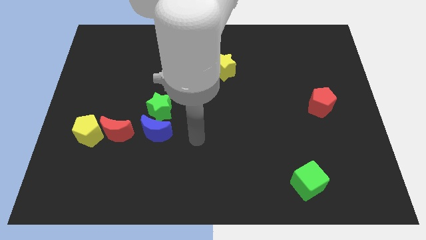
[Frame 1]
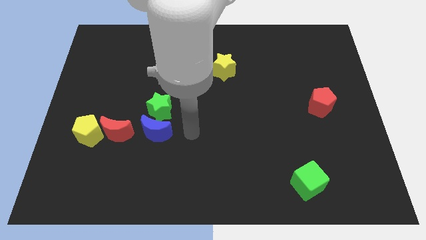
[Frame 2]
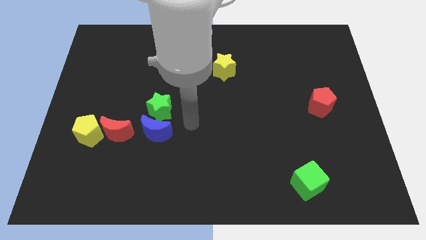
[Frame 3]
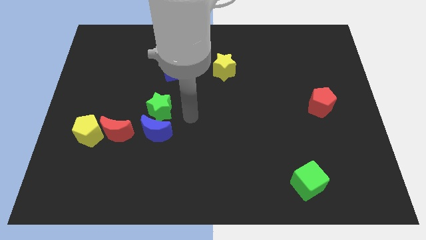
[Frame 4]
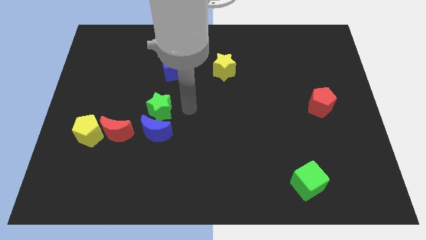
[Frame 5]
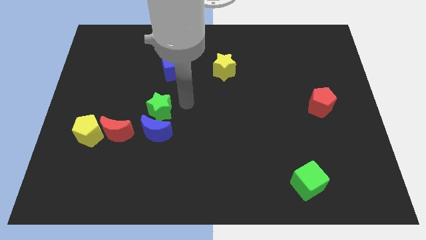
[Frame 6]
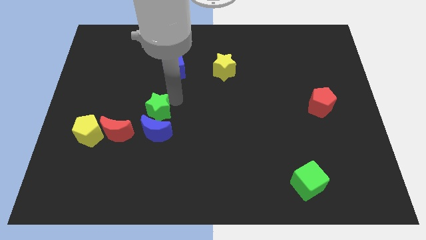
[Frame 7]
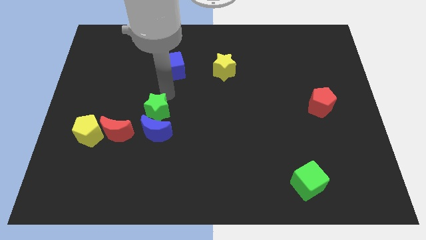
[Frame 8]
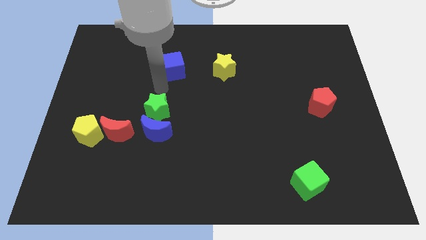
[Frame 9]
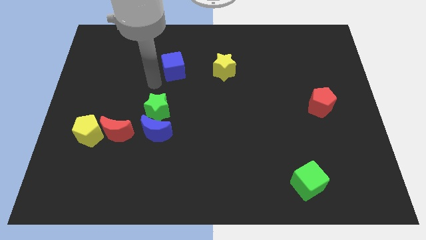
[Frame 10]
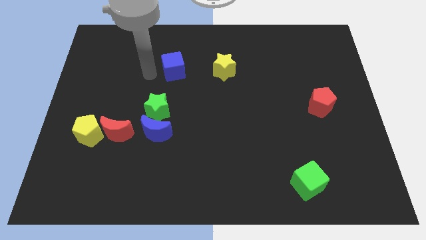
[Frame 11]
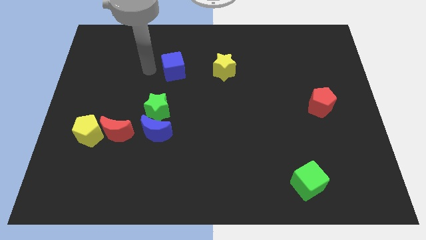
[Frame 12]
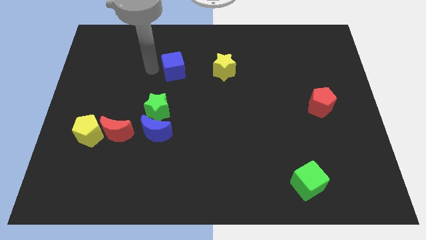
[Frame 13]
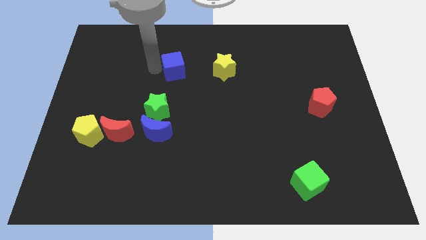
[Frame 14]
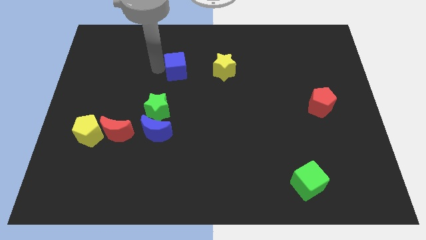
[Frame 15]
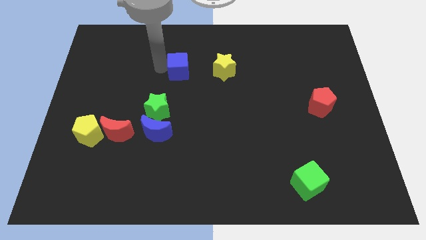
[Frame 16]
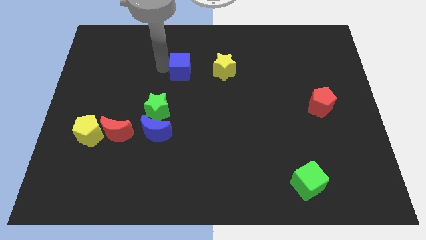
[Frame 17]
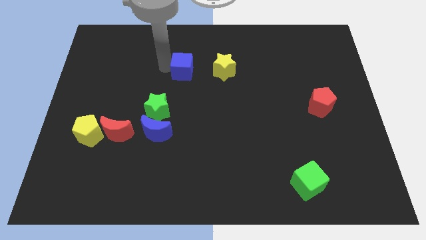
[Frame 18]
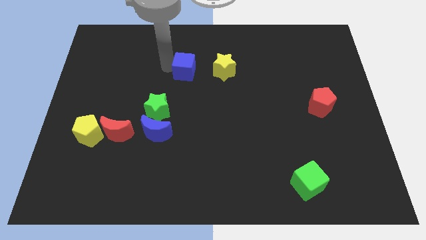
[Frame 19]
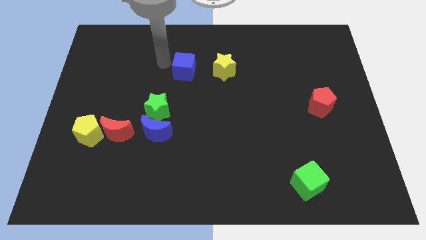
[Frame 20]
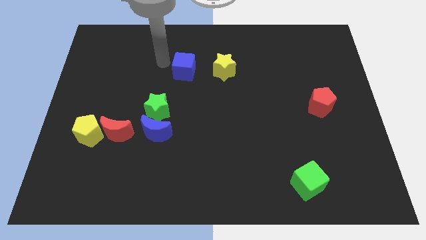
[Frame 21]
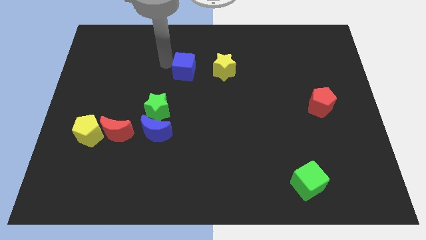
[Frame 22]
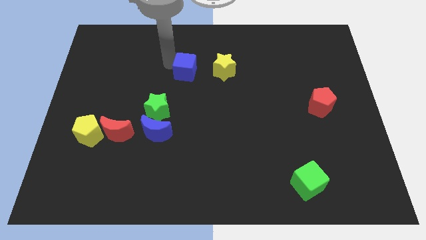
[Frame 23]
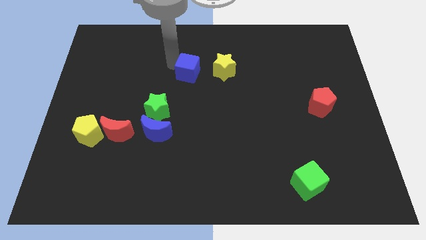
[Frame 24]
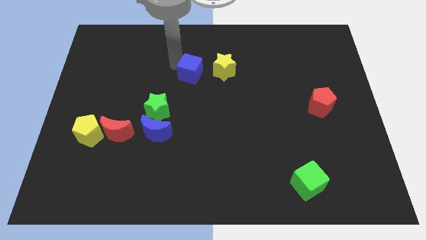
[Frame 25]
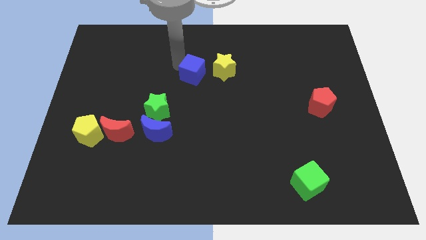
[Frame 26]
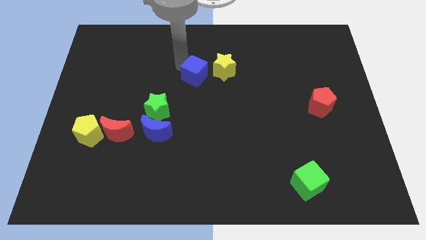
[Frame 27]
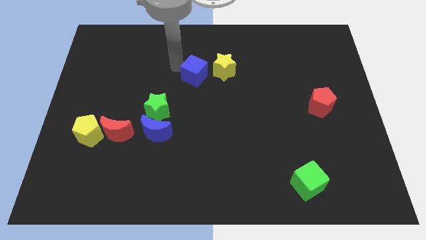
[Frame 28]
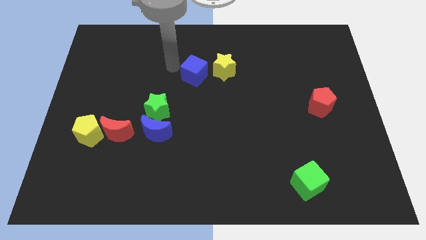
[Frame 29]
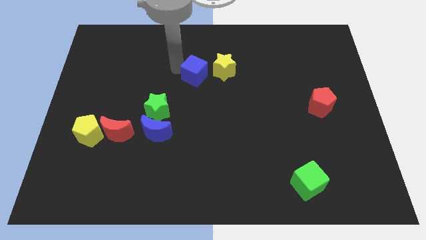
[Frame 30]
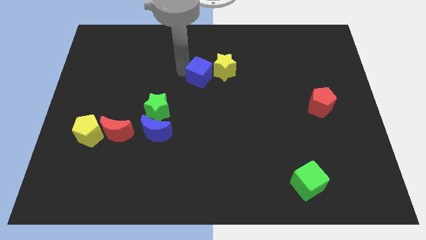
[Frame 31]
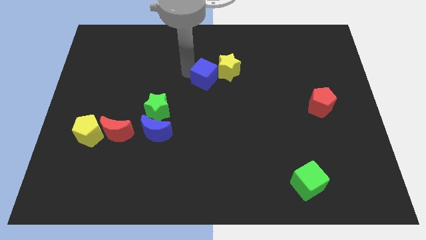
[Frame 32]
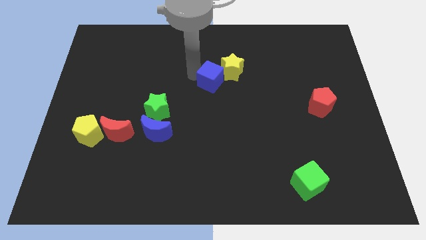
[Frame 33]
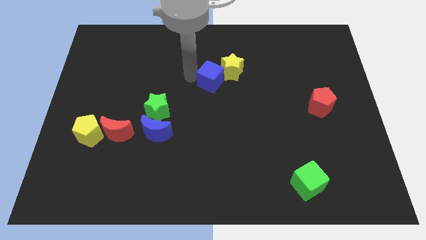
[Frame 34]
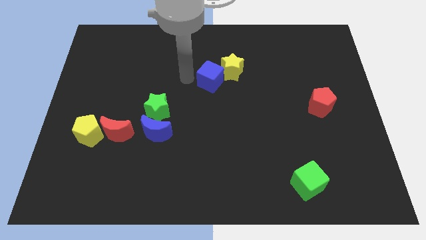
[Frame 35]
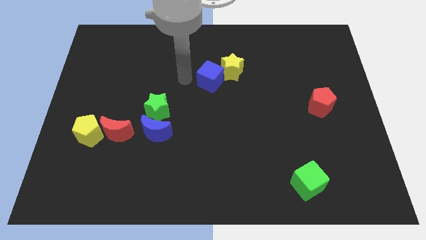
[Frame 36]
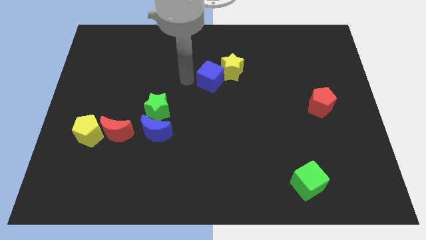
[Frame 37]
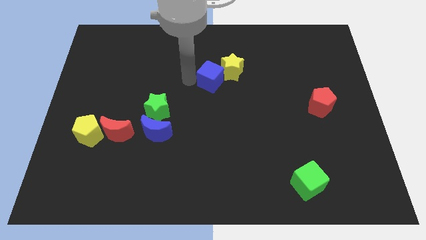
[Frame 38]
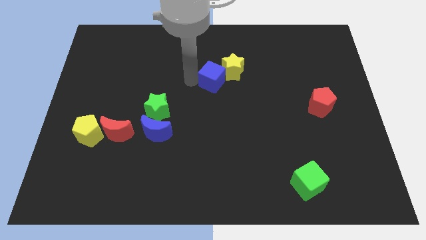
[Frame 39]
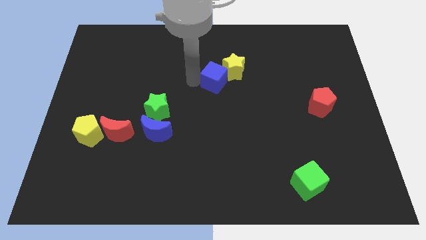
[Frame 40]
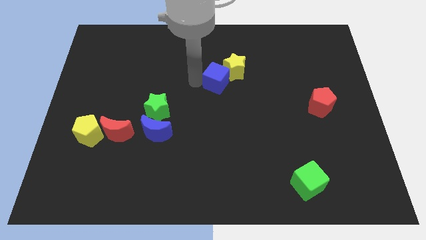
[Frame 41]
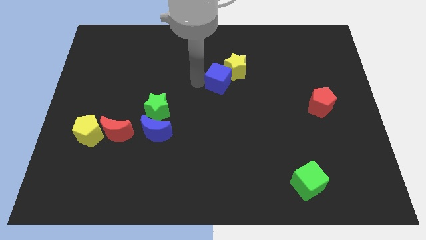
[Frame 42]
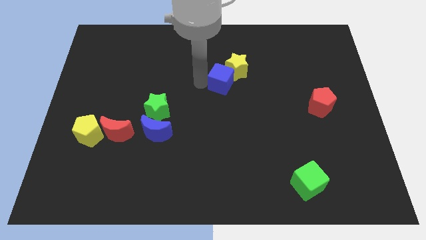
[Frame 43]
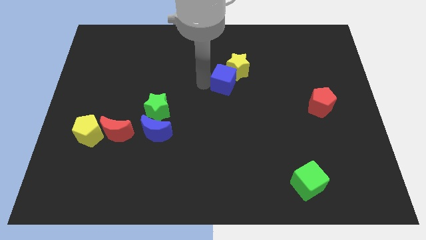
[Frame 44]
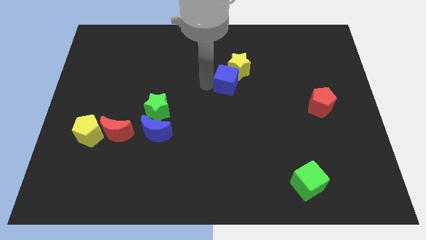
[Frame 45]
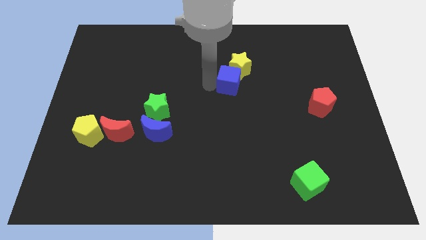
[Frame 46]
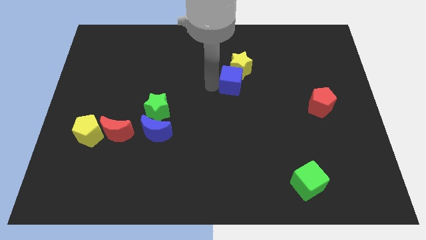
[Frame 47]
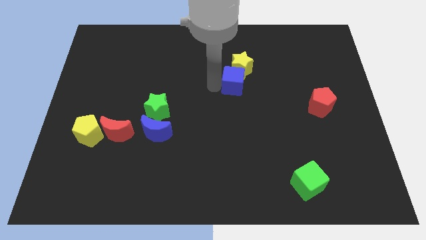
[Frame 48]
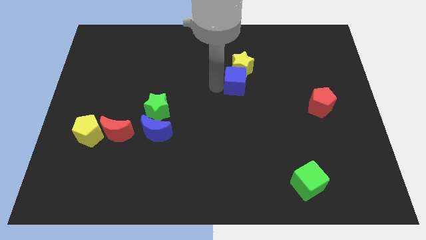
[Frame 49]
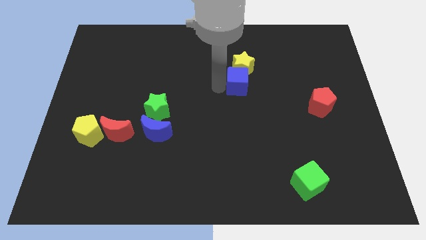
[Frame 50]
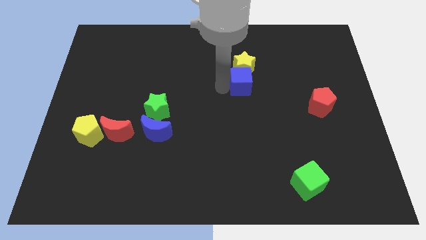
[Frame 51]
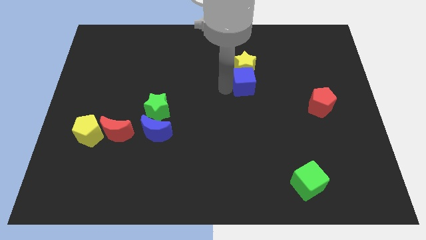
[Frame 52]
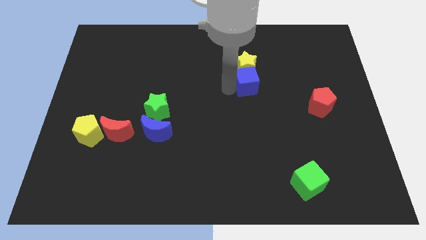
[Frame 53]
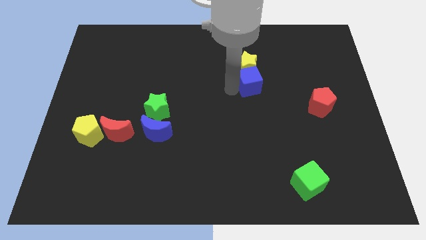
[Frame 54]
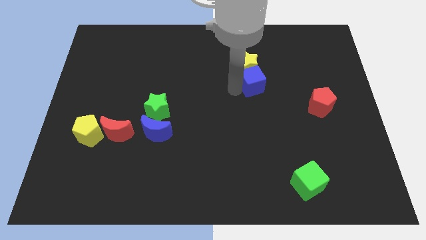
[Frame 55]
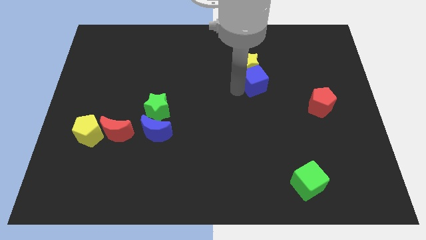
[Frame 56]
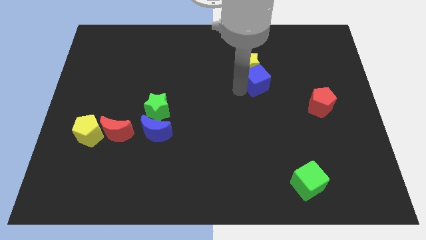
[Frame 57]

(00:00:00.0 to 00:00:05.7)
slide the blue cube to the right

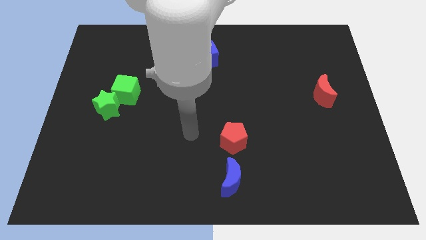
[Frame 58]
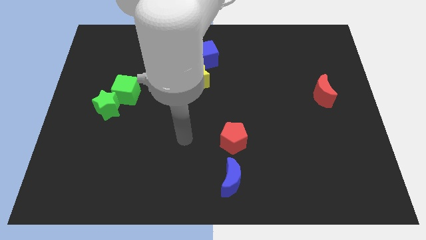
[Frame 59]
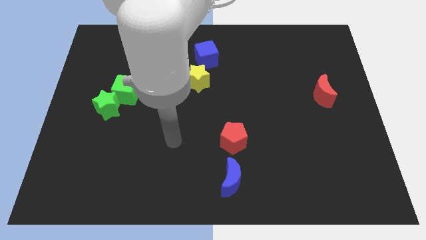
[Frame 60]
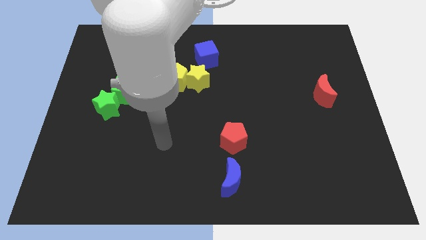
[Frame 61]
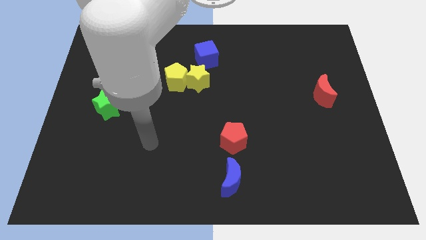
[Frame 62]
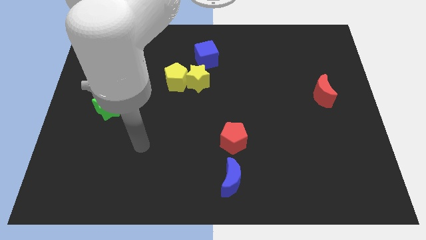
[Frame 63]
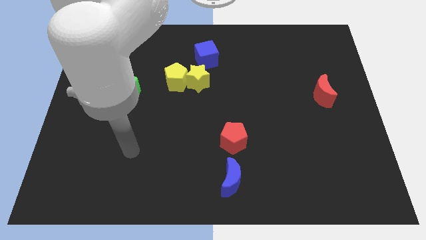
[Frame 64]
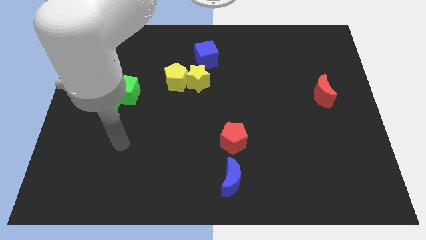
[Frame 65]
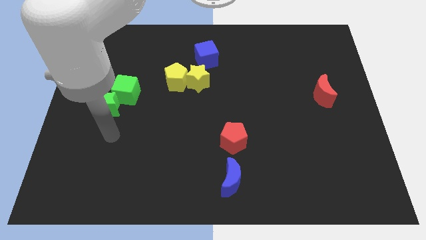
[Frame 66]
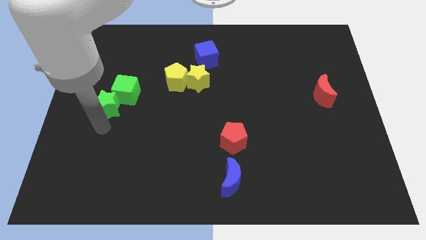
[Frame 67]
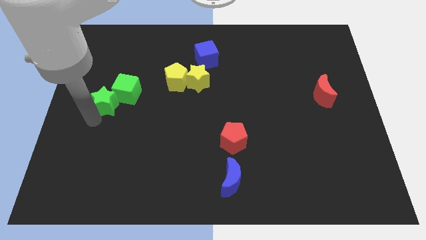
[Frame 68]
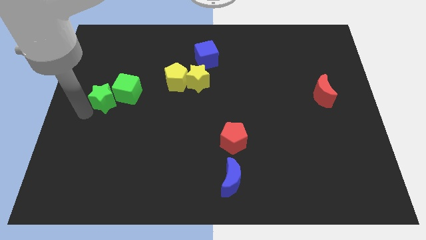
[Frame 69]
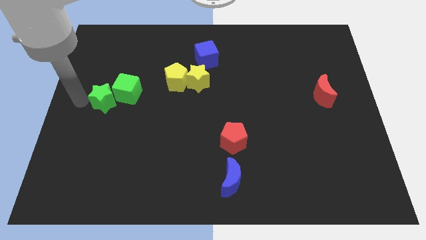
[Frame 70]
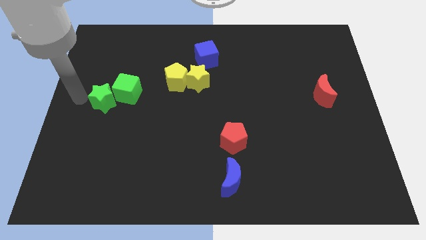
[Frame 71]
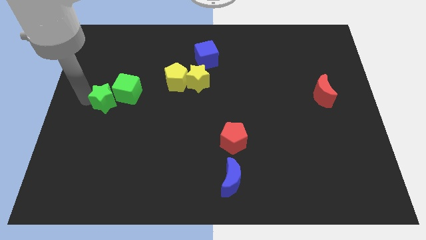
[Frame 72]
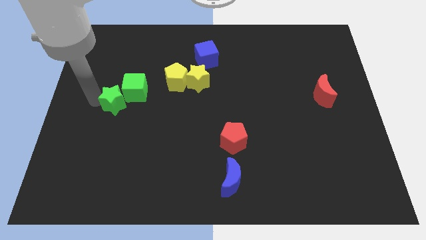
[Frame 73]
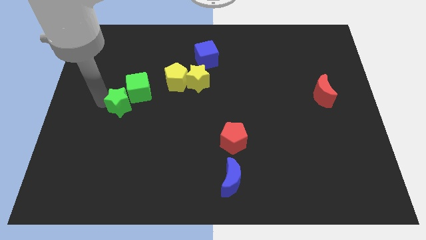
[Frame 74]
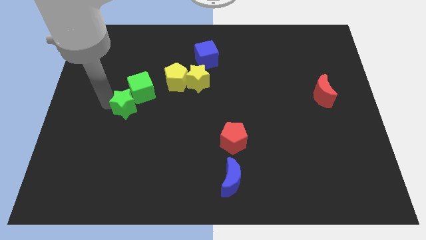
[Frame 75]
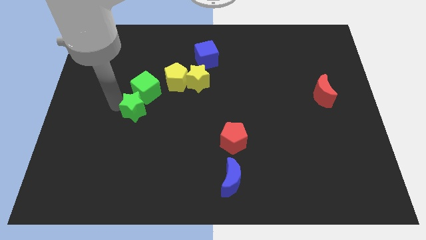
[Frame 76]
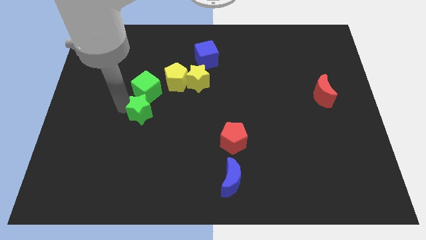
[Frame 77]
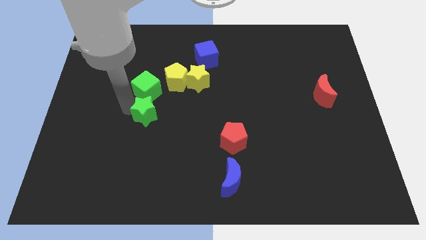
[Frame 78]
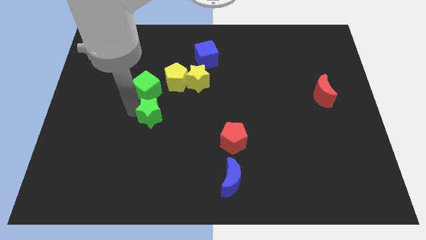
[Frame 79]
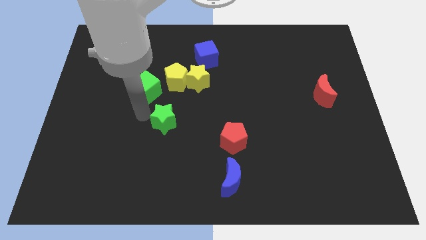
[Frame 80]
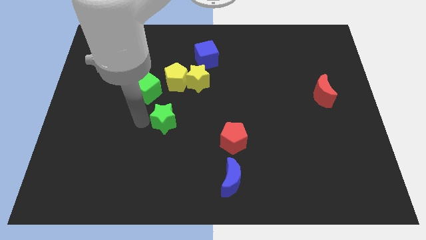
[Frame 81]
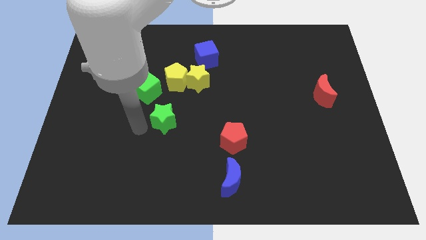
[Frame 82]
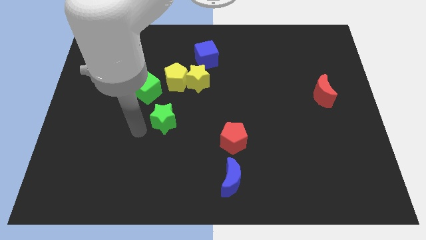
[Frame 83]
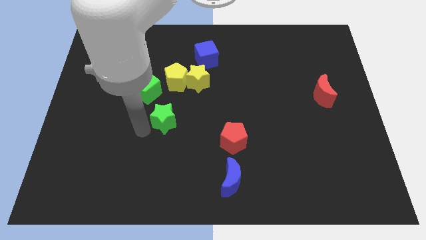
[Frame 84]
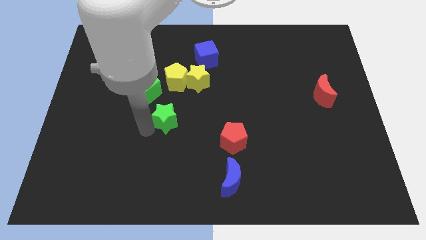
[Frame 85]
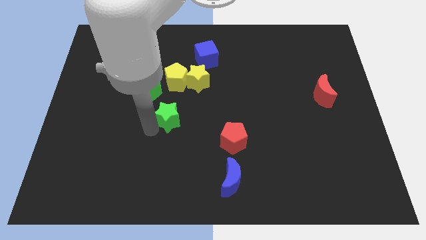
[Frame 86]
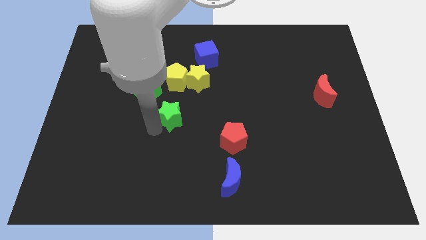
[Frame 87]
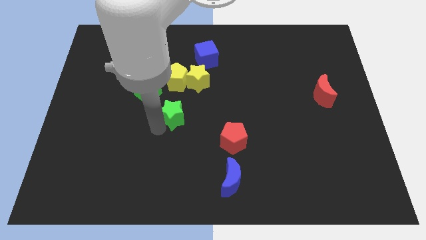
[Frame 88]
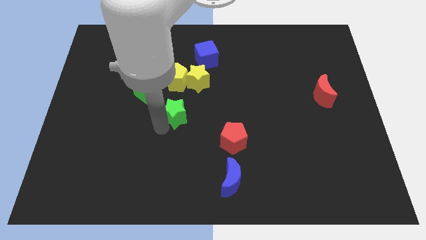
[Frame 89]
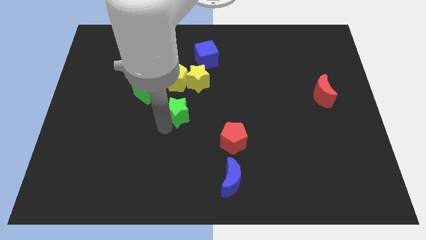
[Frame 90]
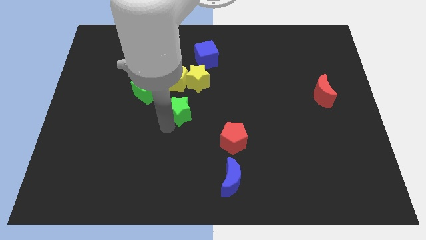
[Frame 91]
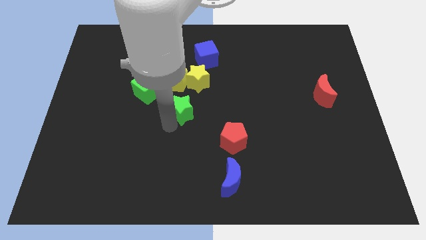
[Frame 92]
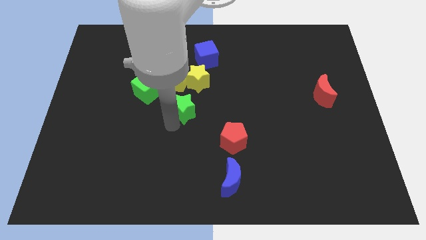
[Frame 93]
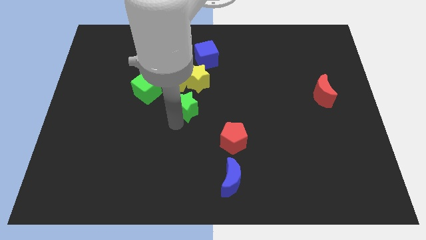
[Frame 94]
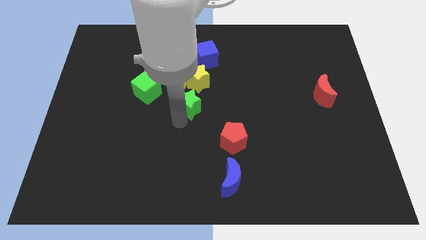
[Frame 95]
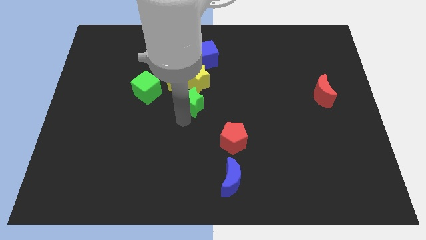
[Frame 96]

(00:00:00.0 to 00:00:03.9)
move the green star to the right
